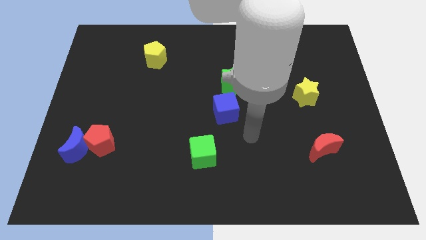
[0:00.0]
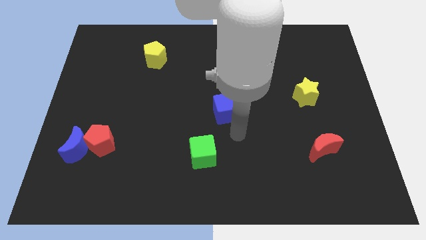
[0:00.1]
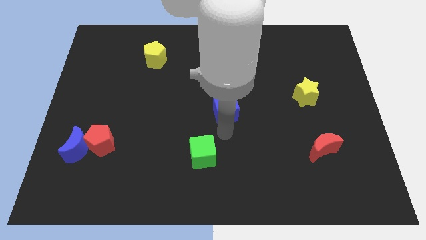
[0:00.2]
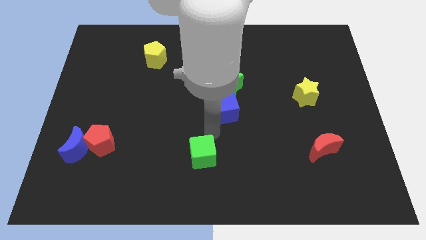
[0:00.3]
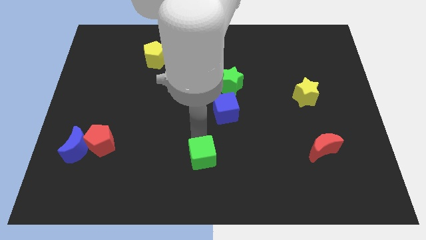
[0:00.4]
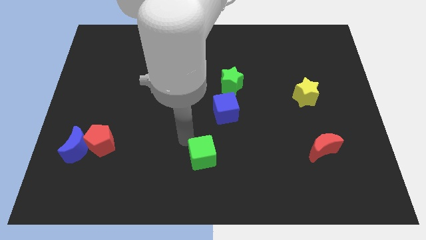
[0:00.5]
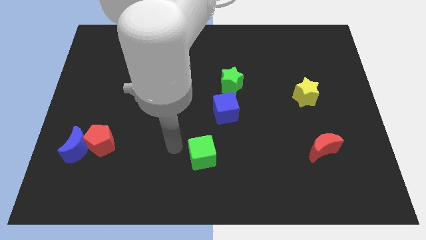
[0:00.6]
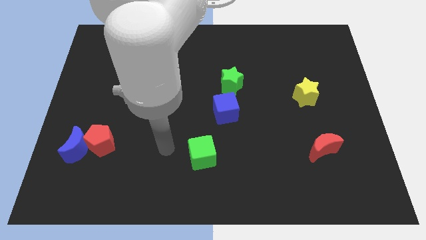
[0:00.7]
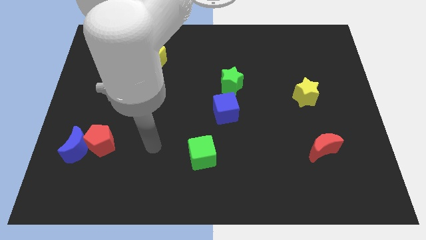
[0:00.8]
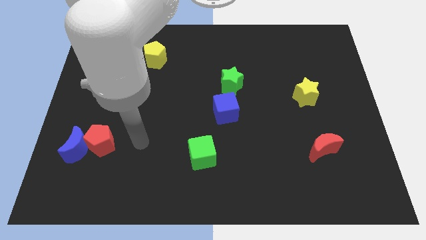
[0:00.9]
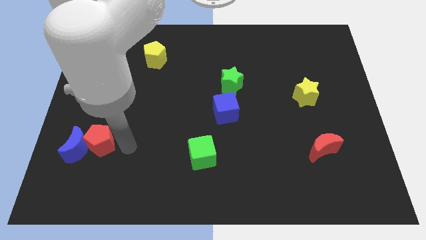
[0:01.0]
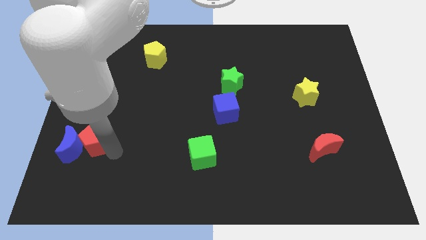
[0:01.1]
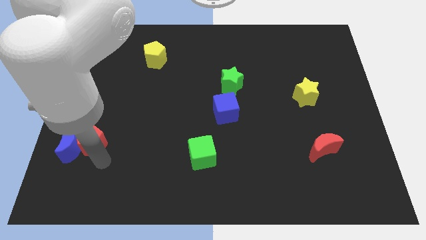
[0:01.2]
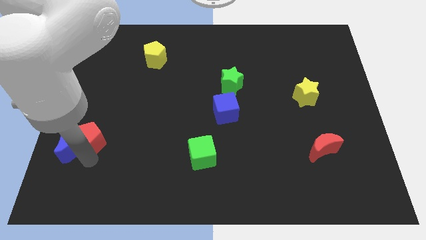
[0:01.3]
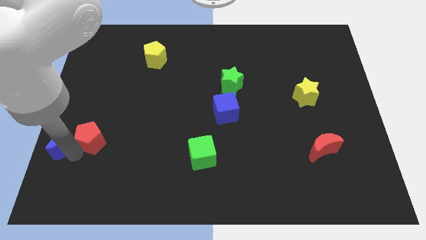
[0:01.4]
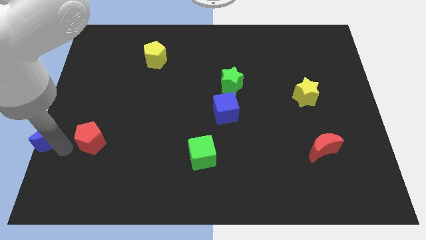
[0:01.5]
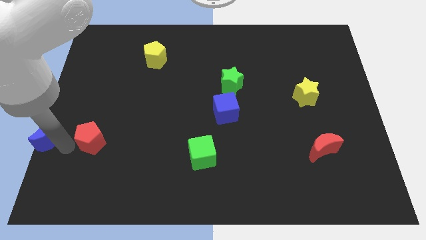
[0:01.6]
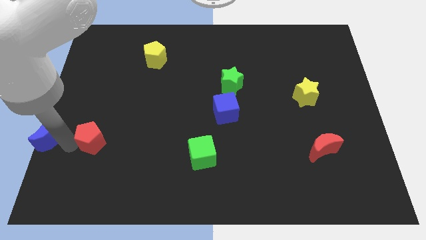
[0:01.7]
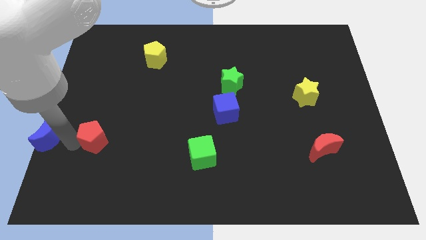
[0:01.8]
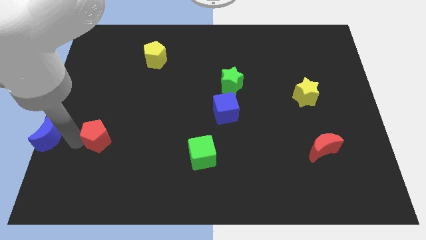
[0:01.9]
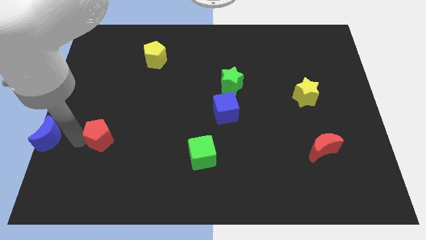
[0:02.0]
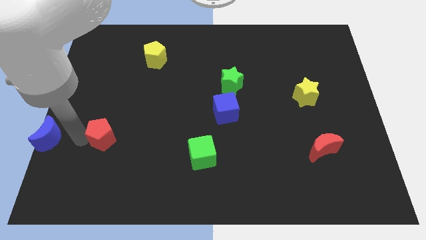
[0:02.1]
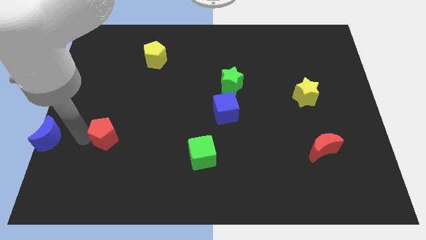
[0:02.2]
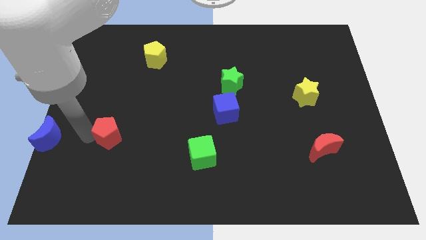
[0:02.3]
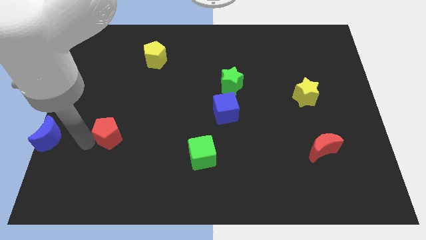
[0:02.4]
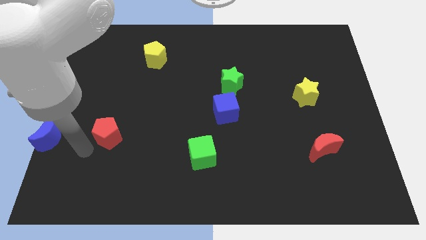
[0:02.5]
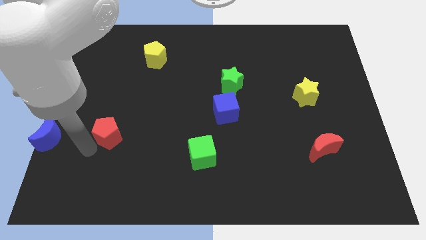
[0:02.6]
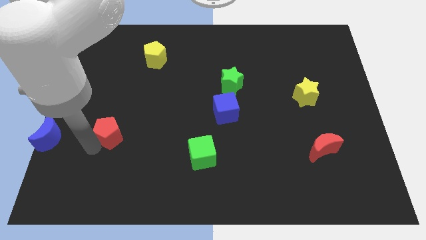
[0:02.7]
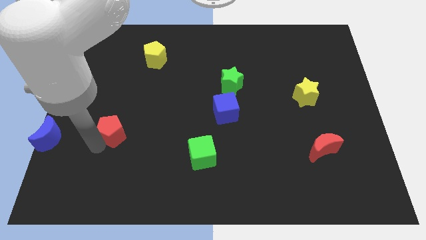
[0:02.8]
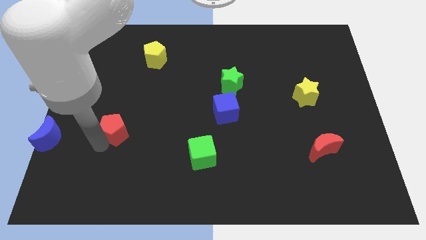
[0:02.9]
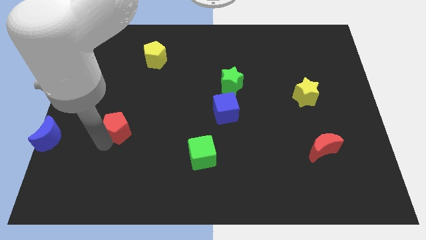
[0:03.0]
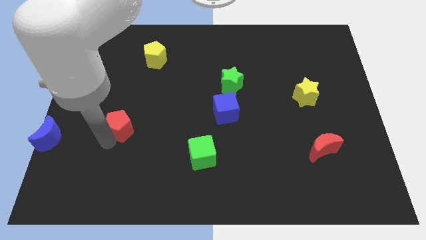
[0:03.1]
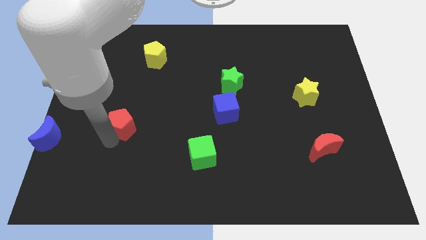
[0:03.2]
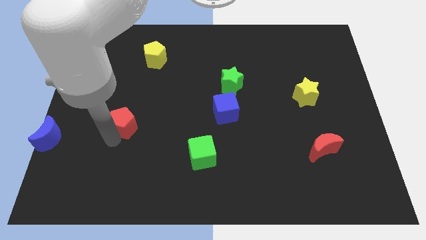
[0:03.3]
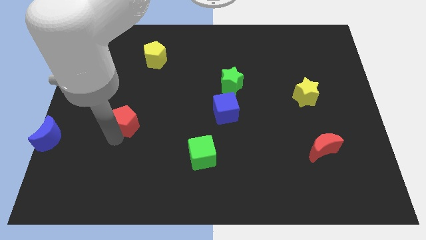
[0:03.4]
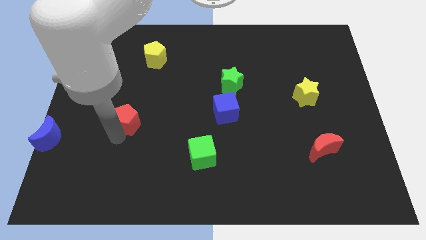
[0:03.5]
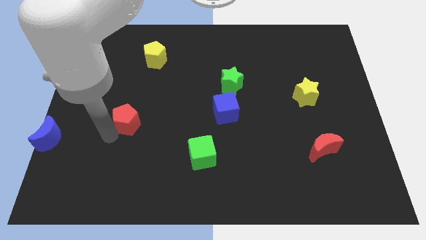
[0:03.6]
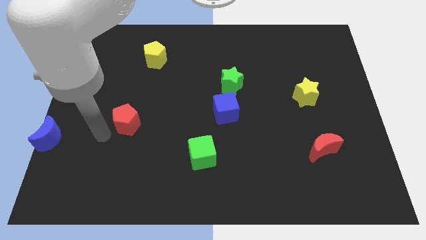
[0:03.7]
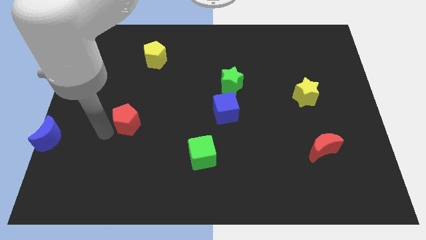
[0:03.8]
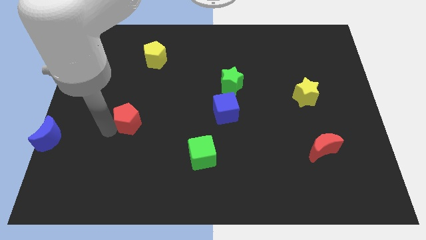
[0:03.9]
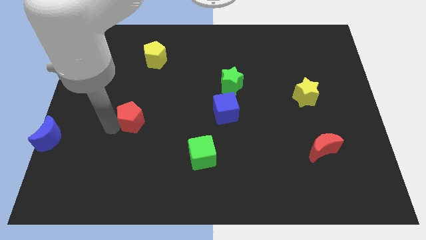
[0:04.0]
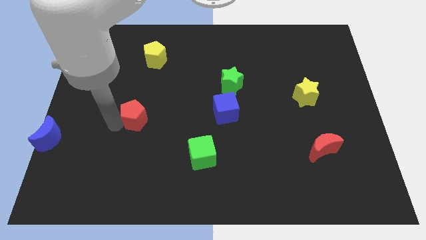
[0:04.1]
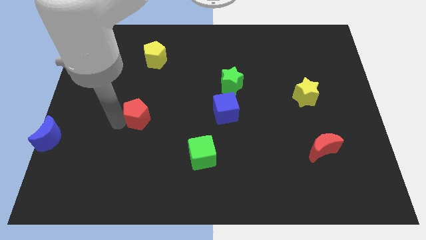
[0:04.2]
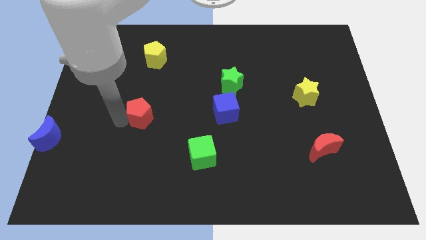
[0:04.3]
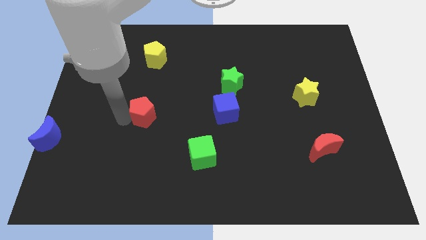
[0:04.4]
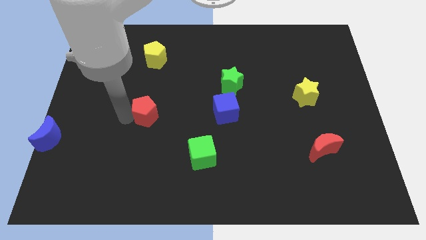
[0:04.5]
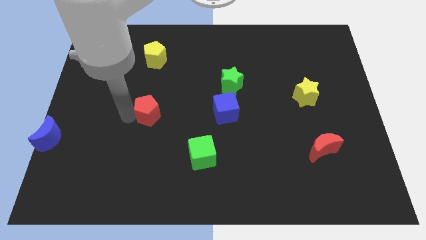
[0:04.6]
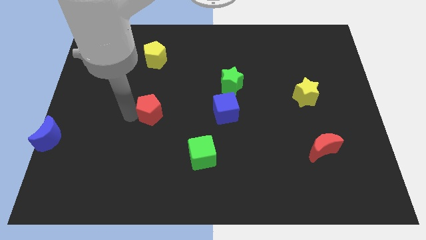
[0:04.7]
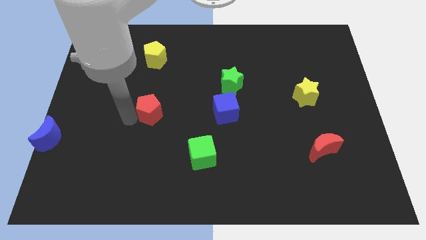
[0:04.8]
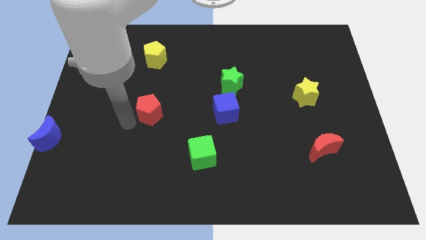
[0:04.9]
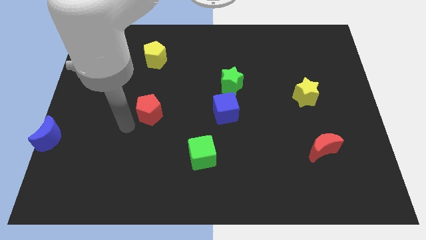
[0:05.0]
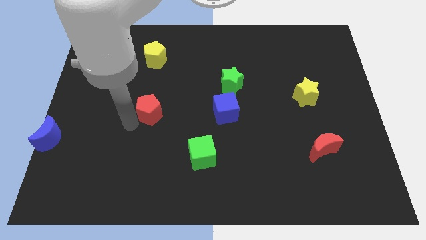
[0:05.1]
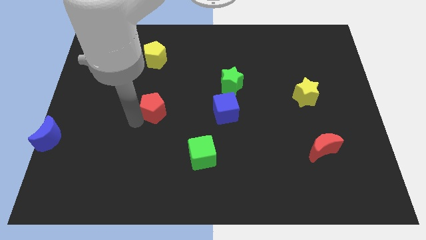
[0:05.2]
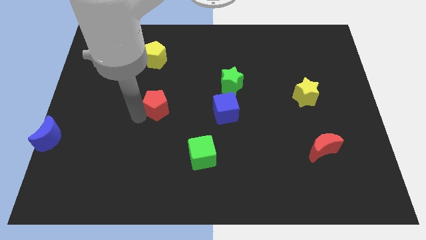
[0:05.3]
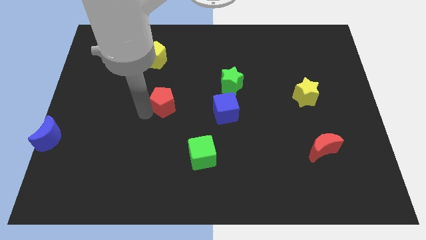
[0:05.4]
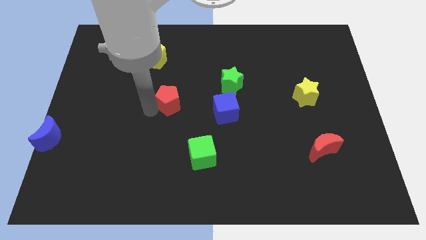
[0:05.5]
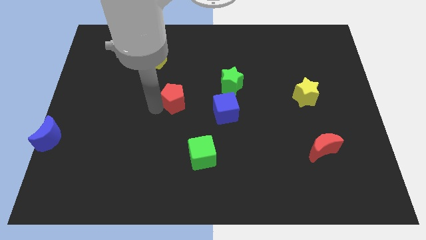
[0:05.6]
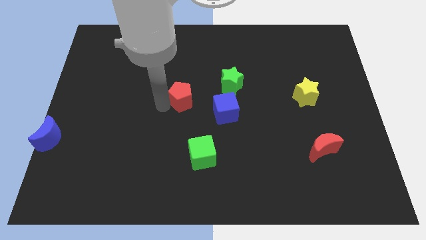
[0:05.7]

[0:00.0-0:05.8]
push the red pentagon diagonally up and right

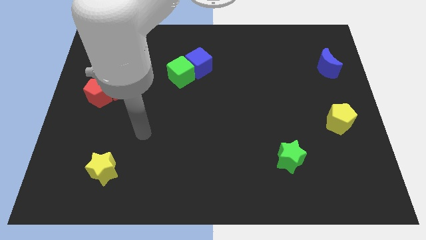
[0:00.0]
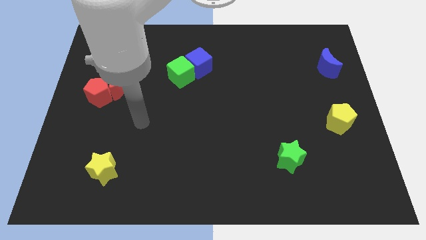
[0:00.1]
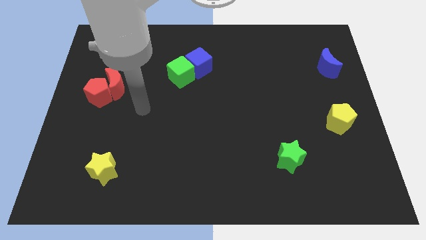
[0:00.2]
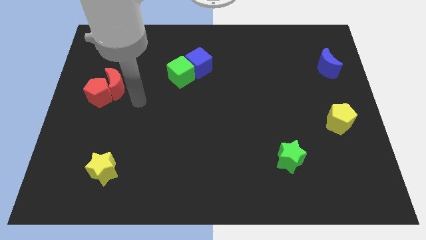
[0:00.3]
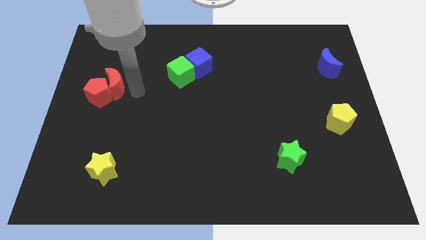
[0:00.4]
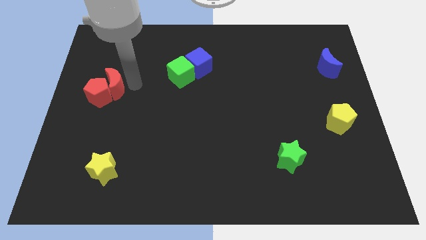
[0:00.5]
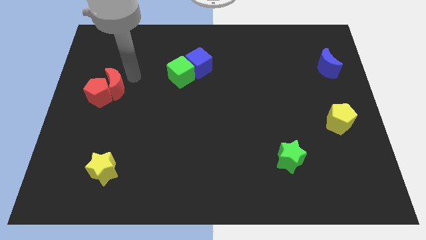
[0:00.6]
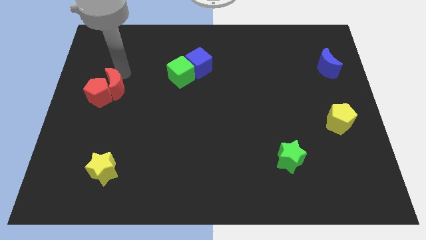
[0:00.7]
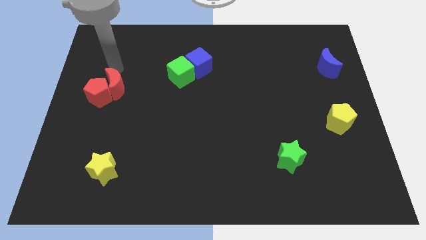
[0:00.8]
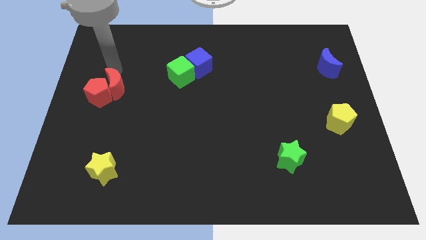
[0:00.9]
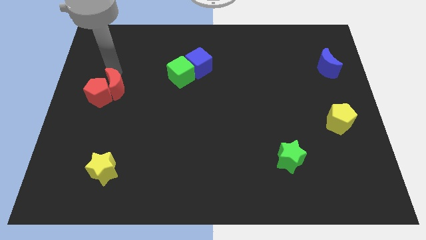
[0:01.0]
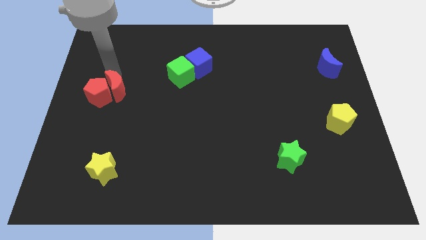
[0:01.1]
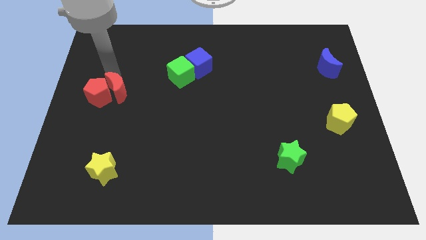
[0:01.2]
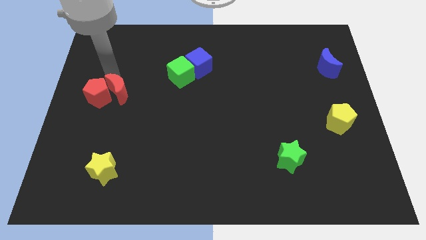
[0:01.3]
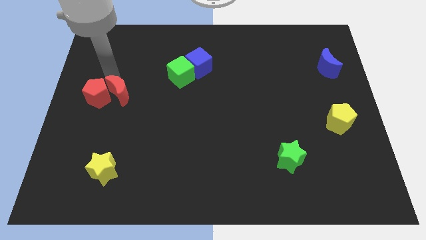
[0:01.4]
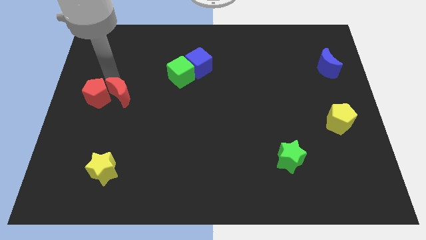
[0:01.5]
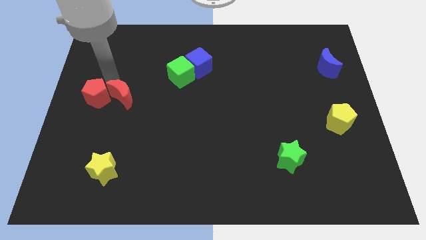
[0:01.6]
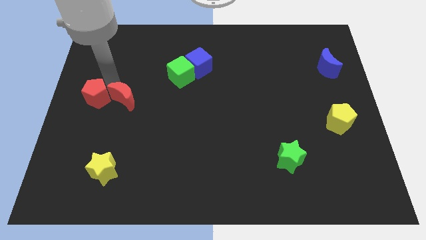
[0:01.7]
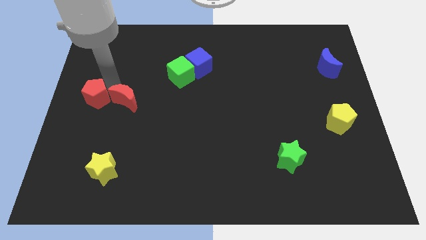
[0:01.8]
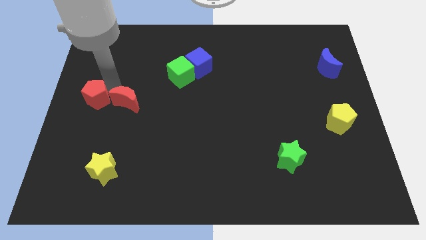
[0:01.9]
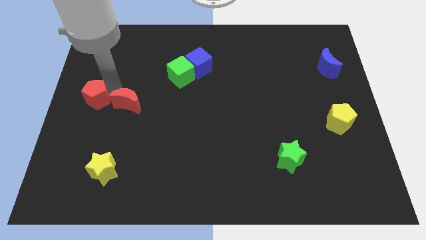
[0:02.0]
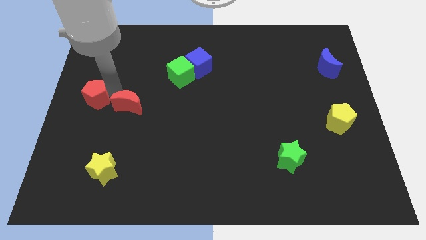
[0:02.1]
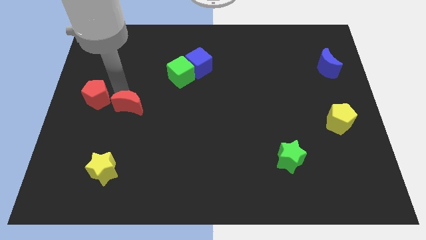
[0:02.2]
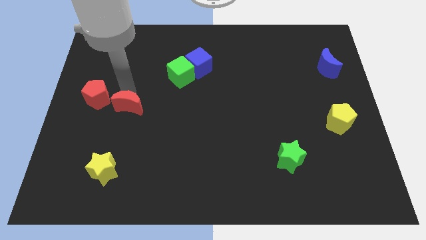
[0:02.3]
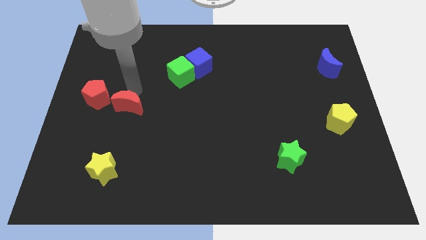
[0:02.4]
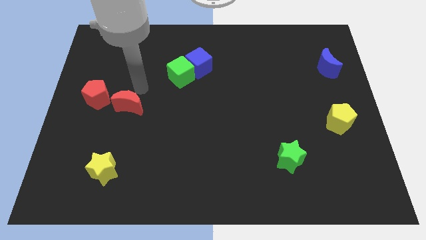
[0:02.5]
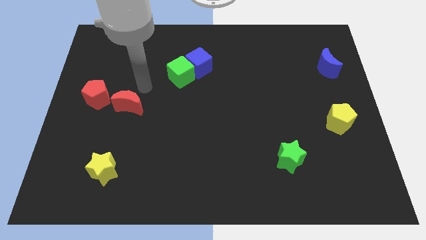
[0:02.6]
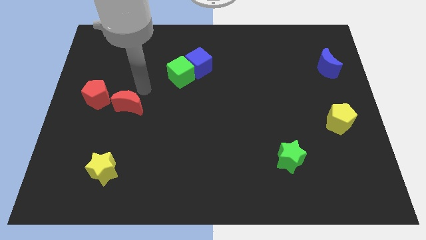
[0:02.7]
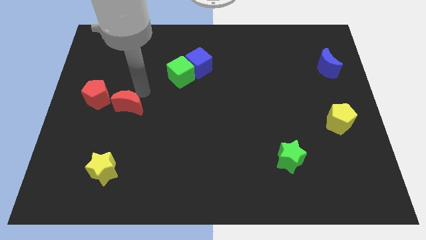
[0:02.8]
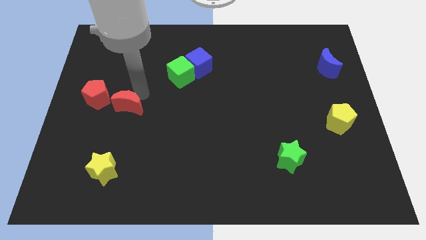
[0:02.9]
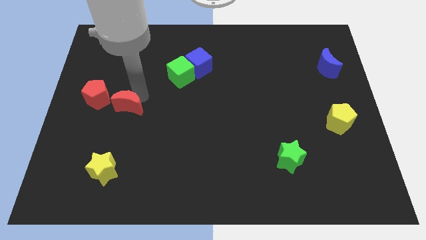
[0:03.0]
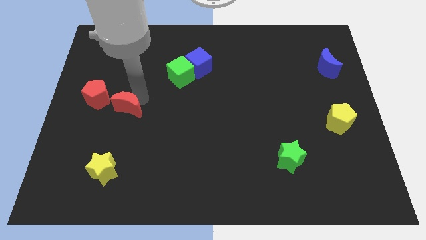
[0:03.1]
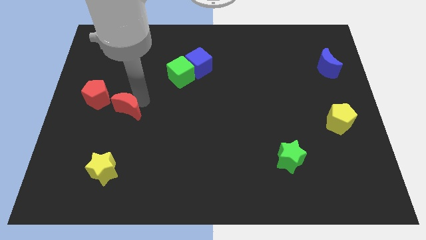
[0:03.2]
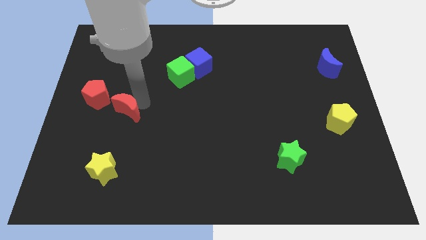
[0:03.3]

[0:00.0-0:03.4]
push the red moon down a little bit
